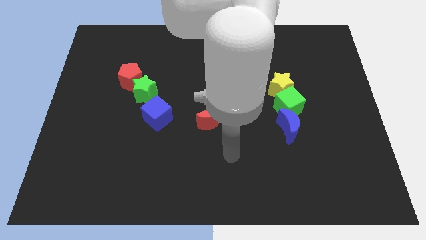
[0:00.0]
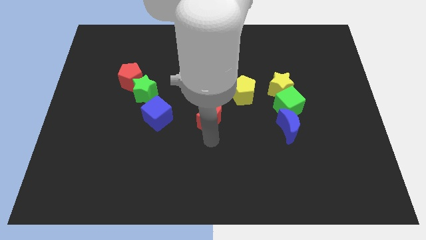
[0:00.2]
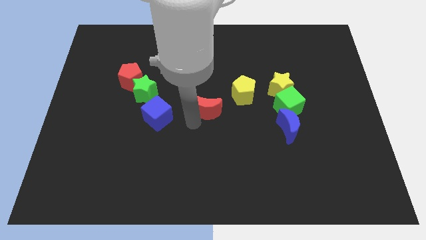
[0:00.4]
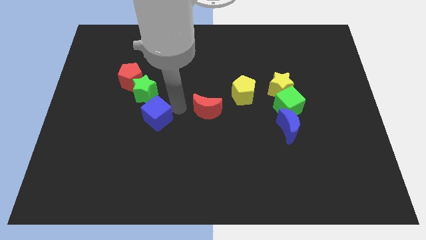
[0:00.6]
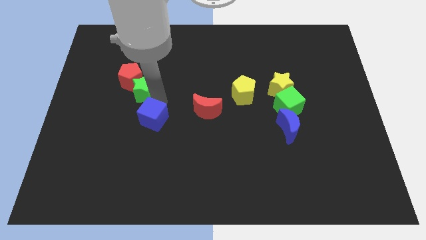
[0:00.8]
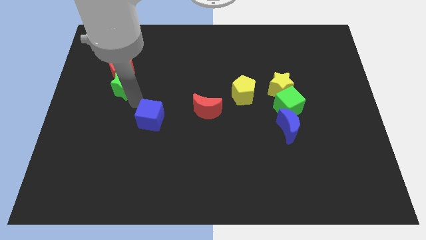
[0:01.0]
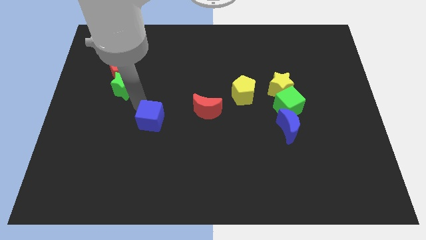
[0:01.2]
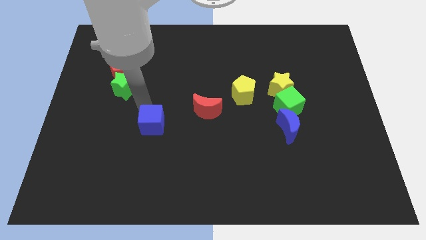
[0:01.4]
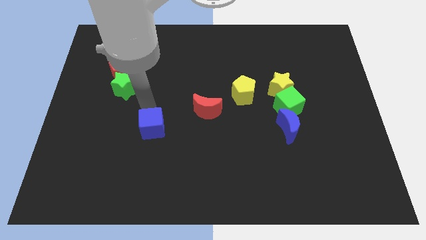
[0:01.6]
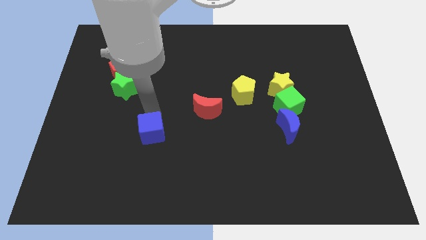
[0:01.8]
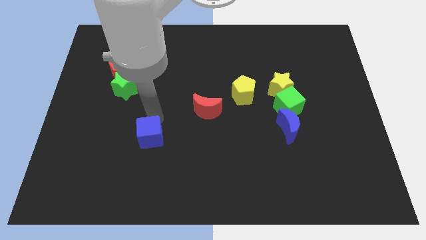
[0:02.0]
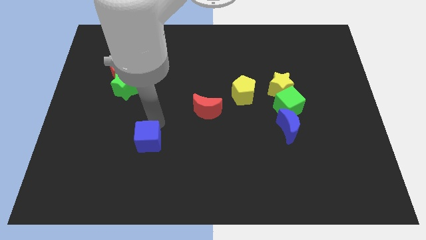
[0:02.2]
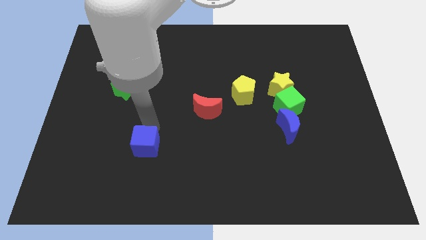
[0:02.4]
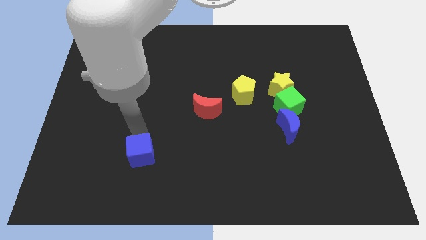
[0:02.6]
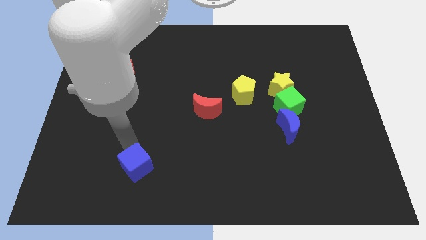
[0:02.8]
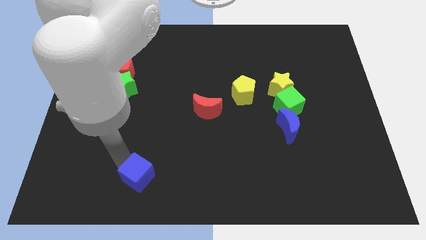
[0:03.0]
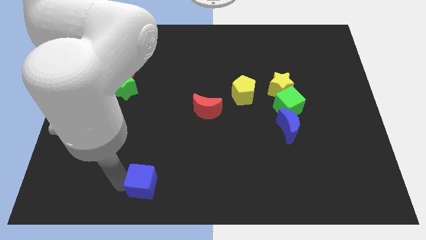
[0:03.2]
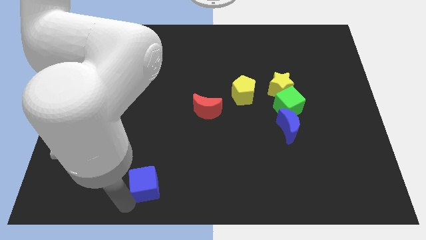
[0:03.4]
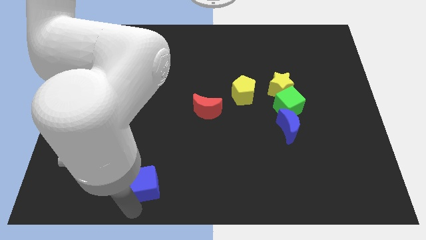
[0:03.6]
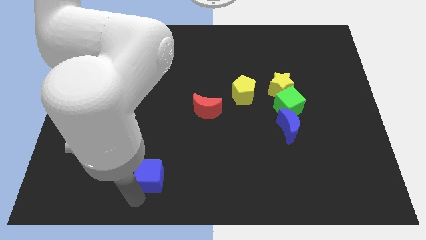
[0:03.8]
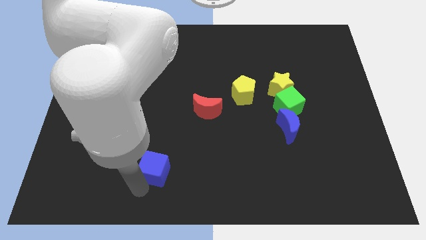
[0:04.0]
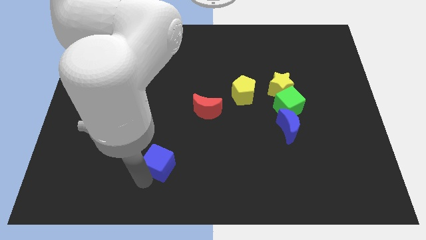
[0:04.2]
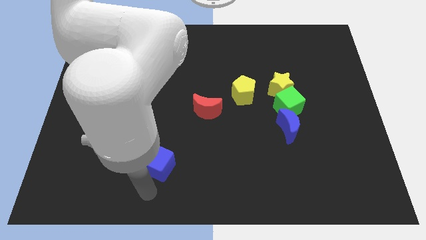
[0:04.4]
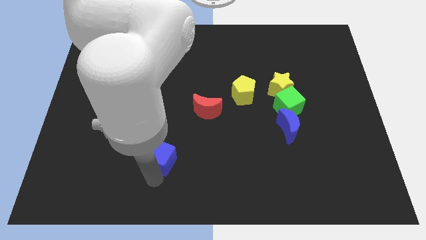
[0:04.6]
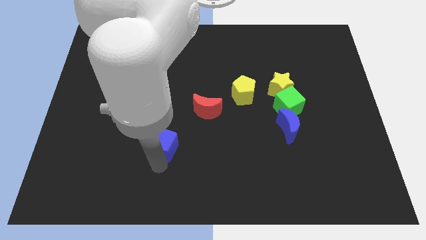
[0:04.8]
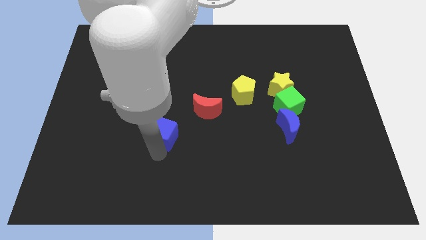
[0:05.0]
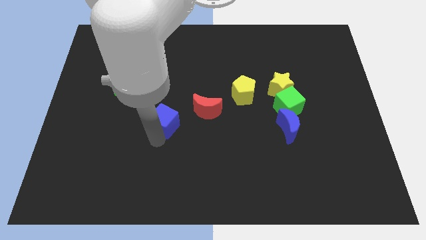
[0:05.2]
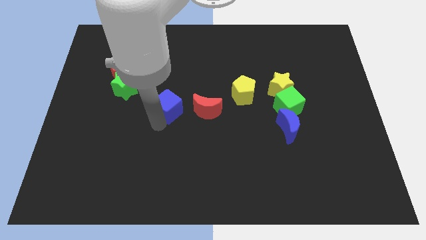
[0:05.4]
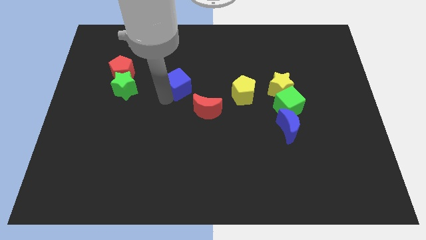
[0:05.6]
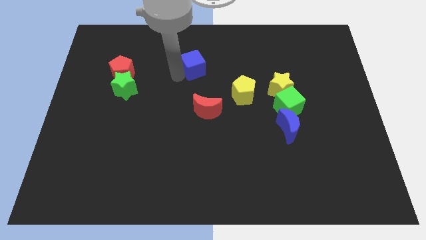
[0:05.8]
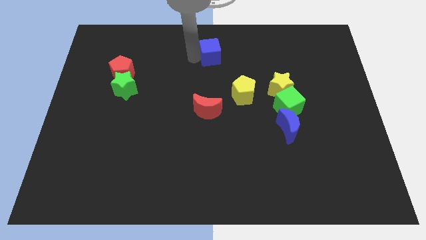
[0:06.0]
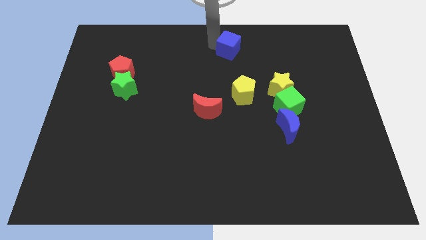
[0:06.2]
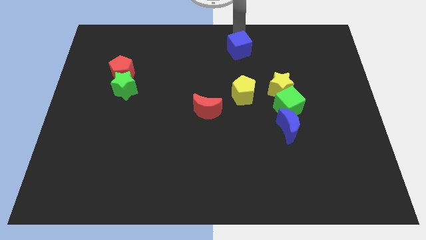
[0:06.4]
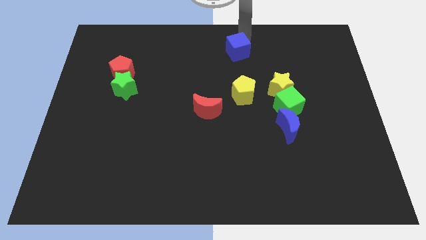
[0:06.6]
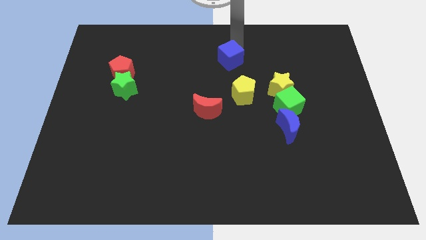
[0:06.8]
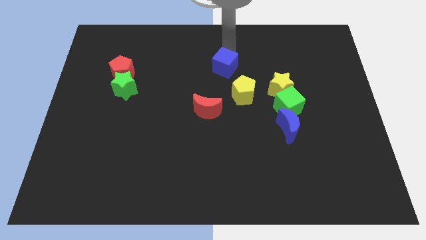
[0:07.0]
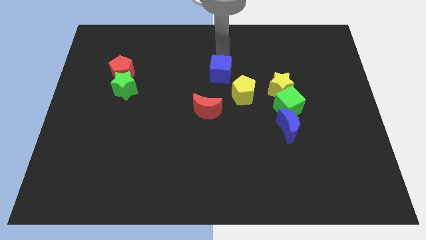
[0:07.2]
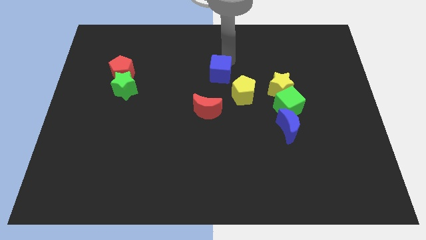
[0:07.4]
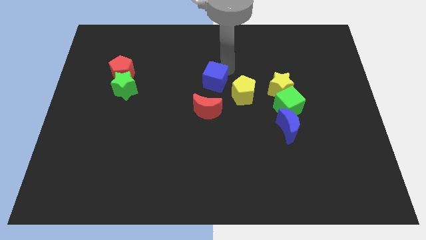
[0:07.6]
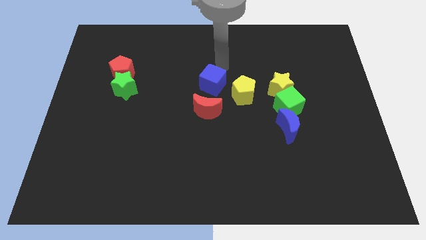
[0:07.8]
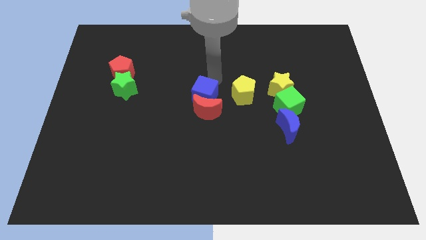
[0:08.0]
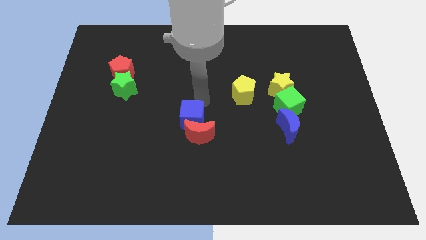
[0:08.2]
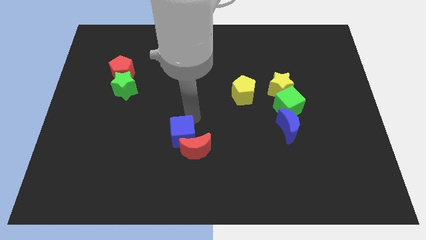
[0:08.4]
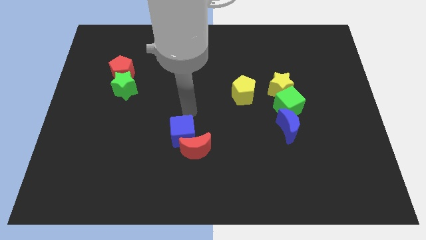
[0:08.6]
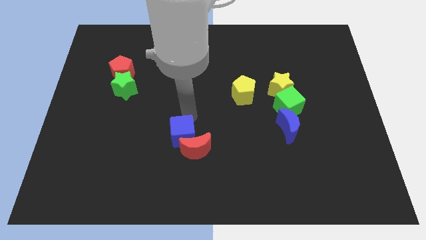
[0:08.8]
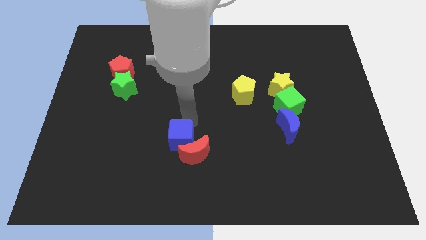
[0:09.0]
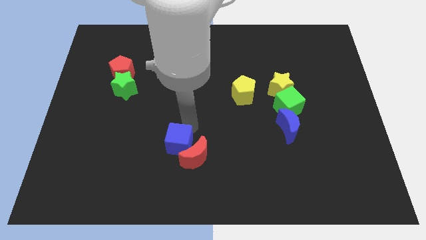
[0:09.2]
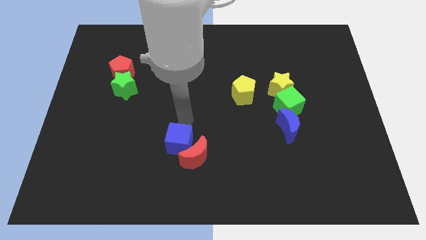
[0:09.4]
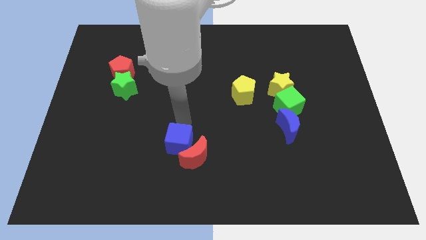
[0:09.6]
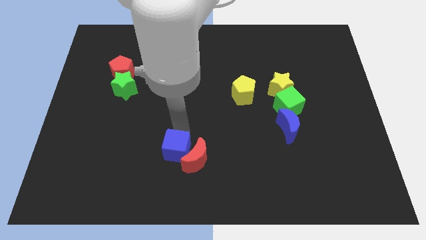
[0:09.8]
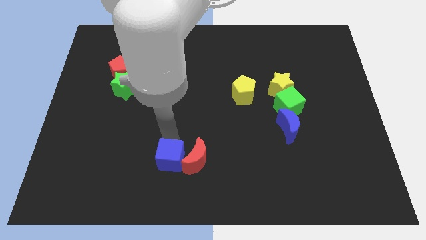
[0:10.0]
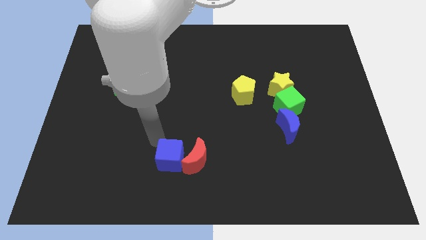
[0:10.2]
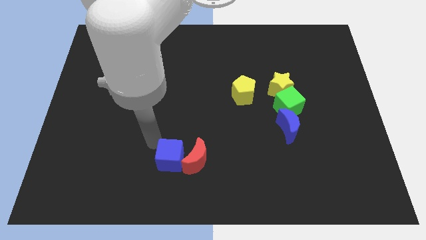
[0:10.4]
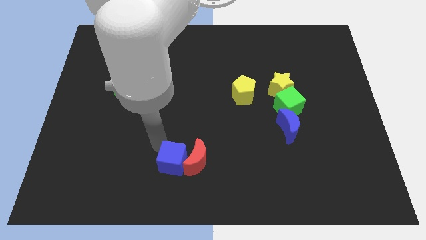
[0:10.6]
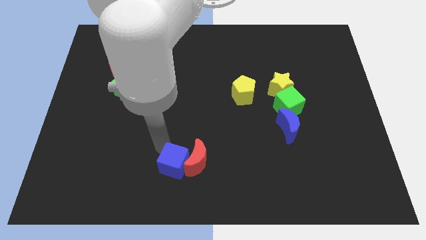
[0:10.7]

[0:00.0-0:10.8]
put the blue cube to the bottom side

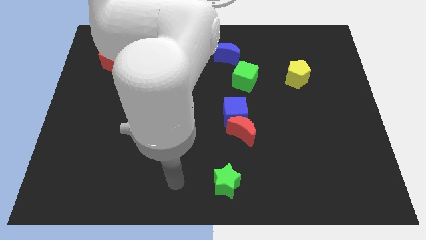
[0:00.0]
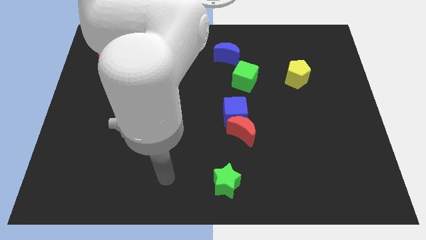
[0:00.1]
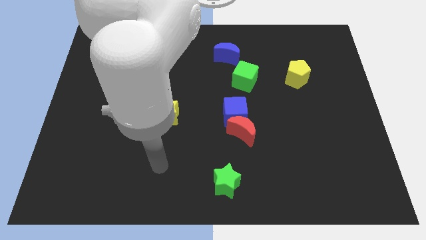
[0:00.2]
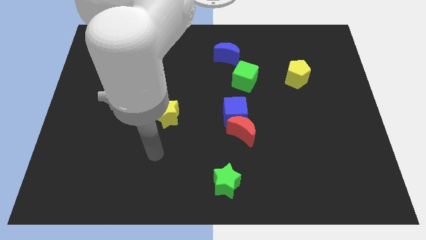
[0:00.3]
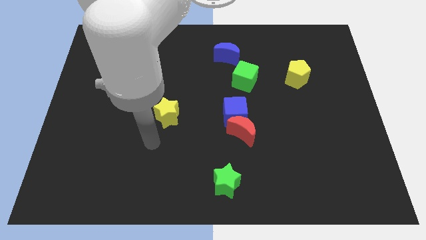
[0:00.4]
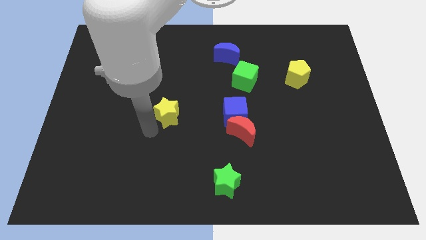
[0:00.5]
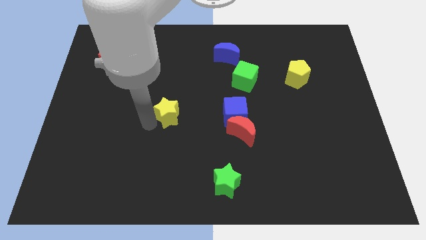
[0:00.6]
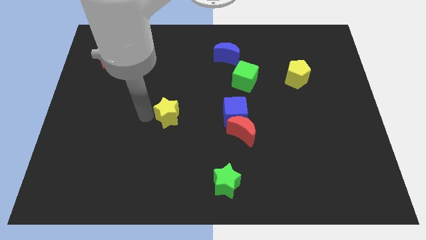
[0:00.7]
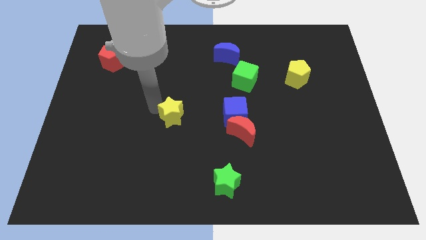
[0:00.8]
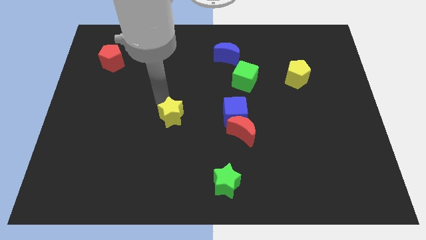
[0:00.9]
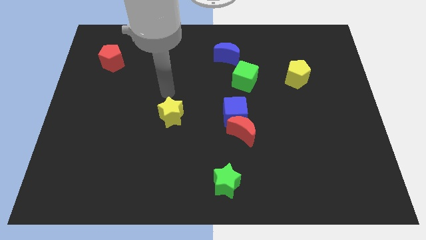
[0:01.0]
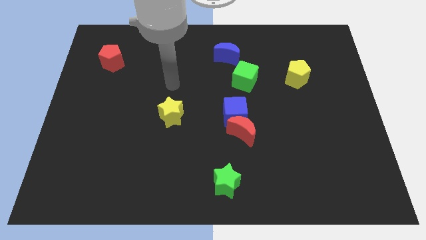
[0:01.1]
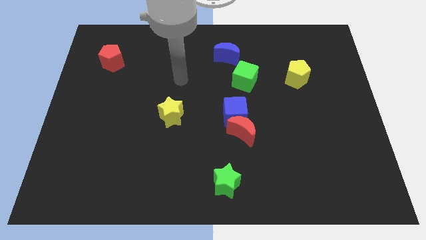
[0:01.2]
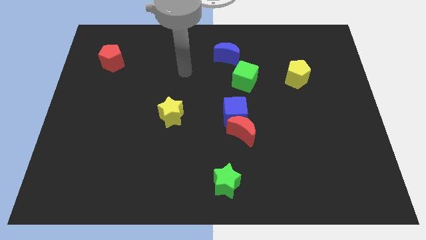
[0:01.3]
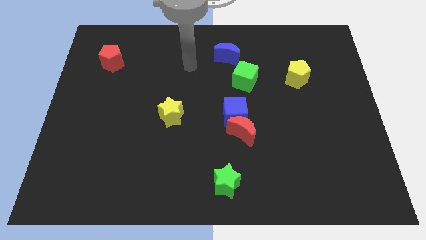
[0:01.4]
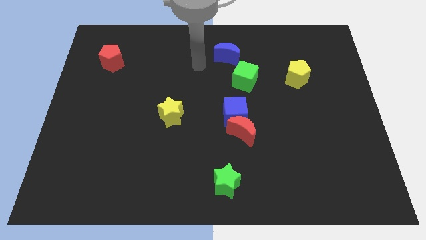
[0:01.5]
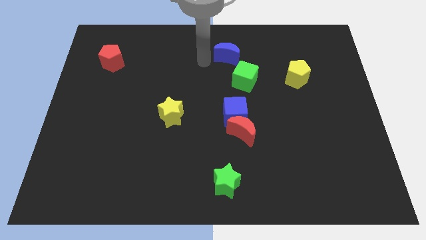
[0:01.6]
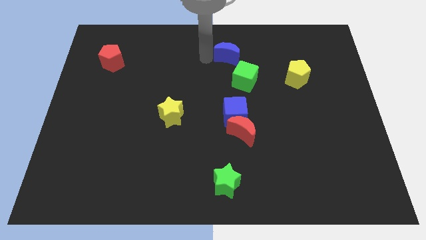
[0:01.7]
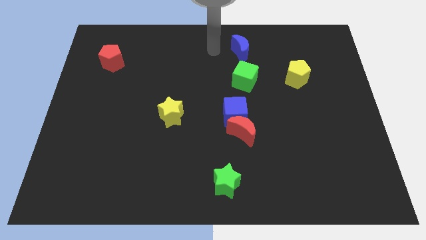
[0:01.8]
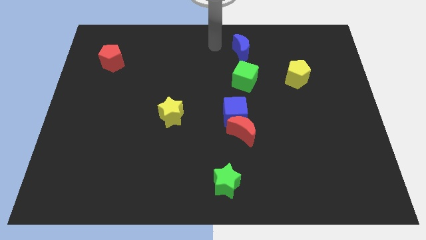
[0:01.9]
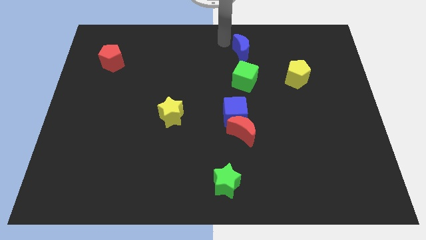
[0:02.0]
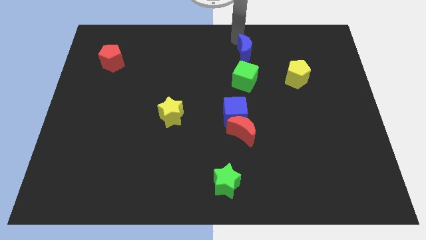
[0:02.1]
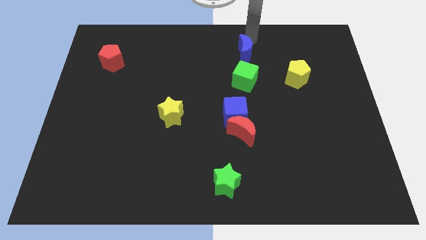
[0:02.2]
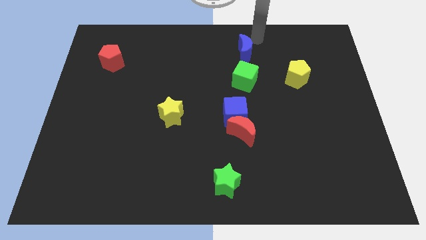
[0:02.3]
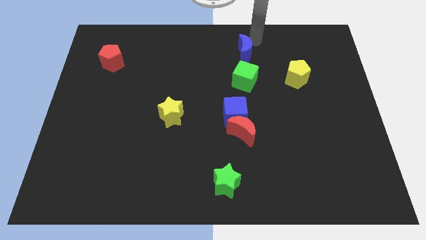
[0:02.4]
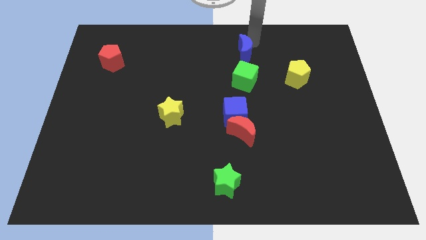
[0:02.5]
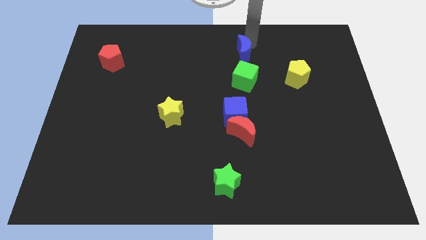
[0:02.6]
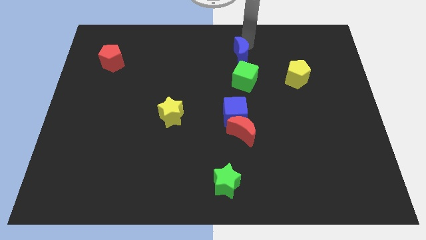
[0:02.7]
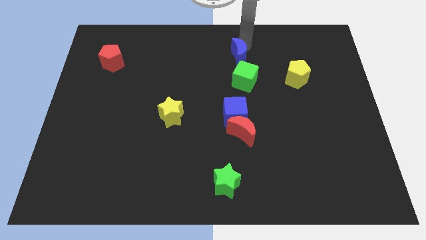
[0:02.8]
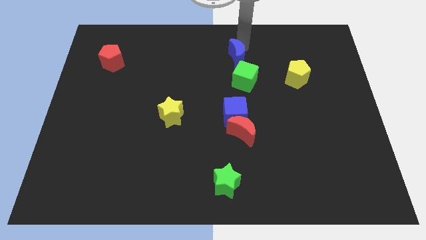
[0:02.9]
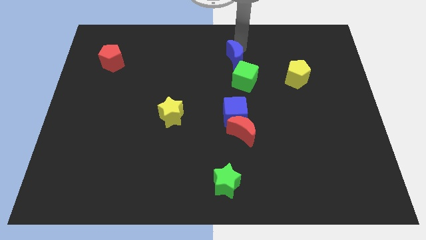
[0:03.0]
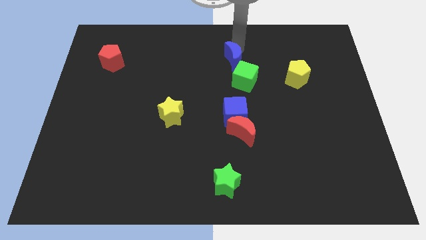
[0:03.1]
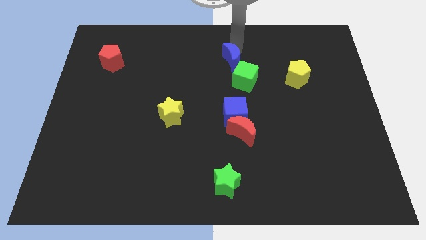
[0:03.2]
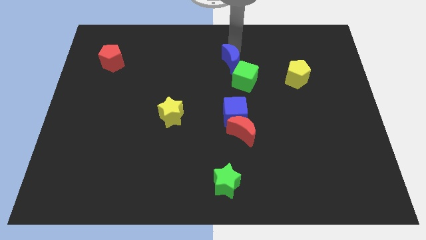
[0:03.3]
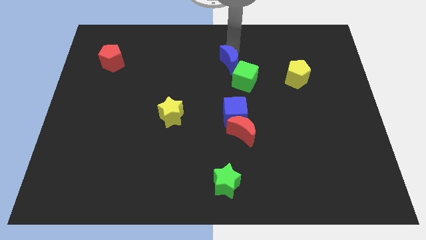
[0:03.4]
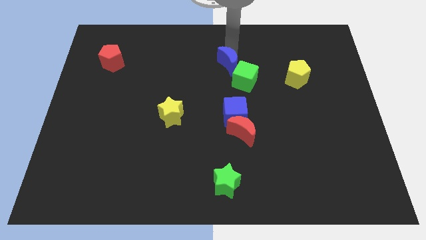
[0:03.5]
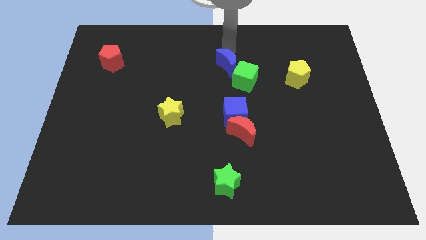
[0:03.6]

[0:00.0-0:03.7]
slide the blue moon to the center
